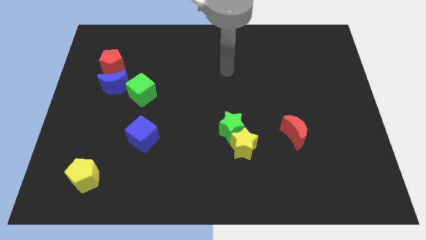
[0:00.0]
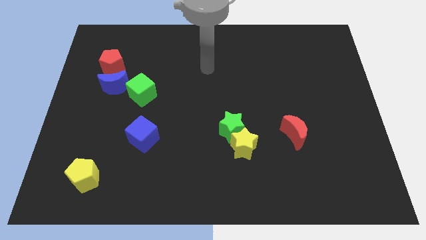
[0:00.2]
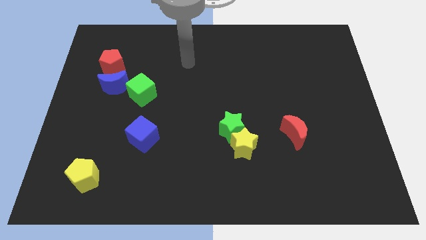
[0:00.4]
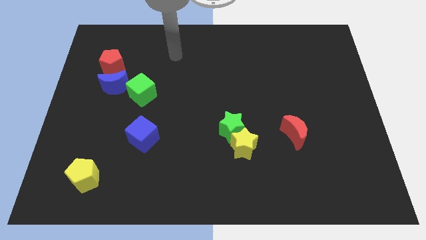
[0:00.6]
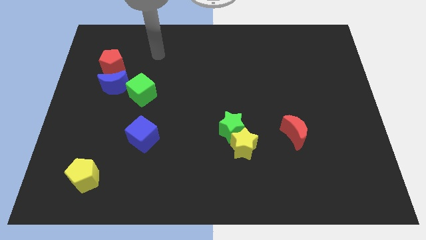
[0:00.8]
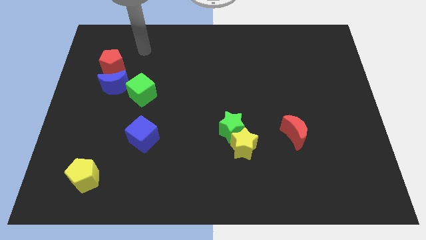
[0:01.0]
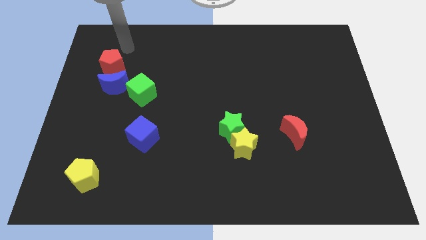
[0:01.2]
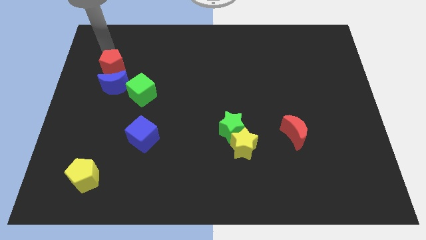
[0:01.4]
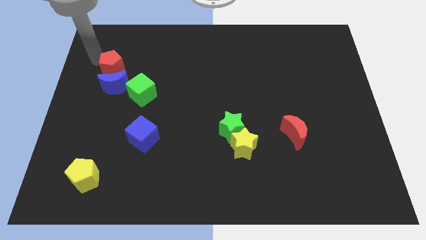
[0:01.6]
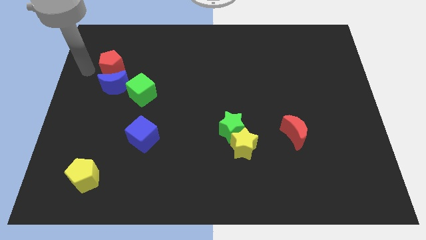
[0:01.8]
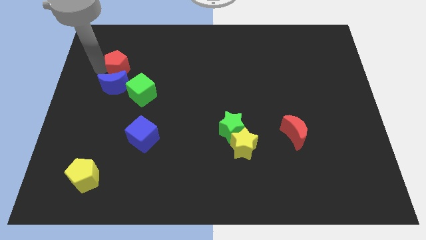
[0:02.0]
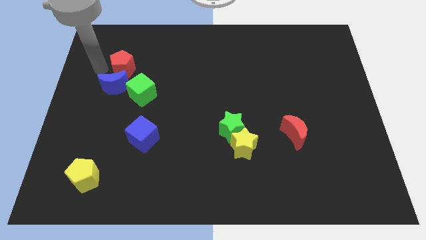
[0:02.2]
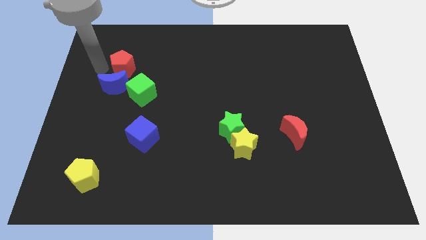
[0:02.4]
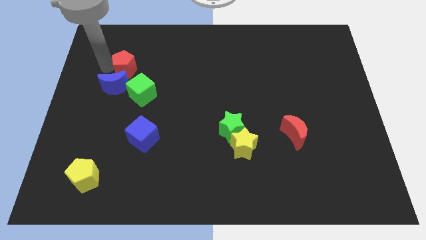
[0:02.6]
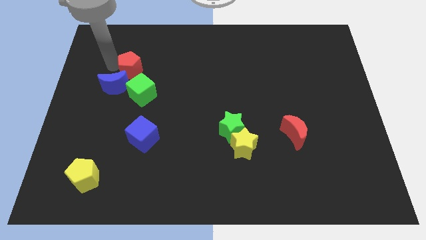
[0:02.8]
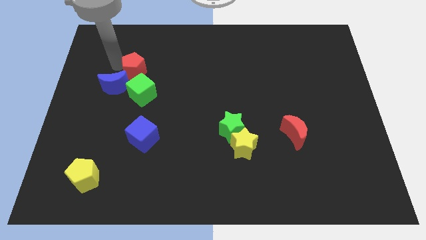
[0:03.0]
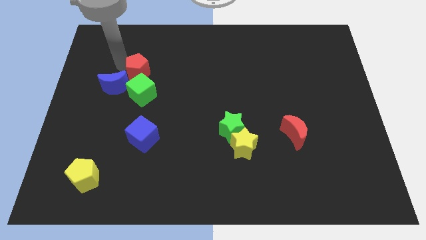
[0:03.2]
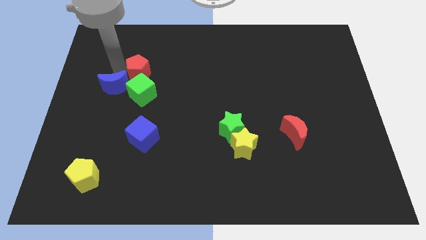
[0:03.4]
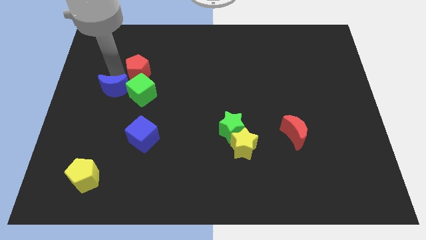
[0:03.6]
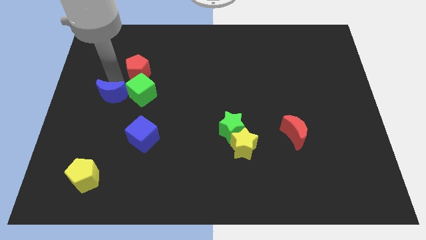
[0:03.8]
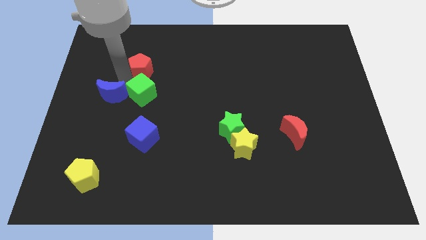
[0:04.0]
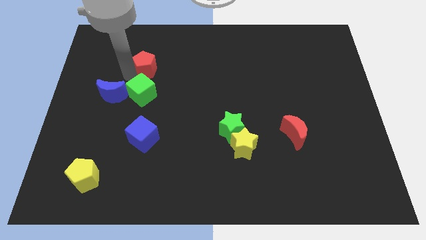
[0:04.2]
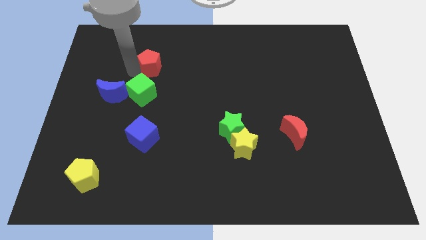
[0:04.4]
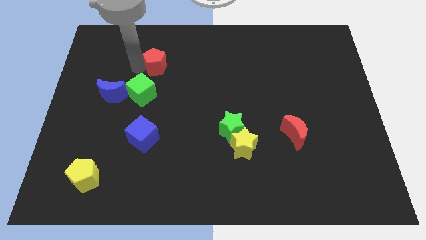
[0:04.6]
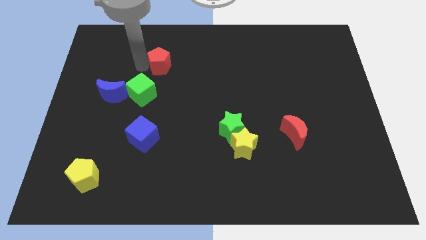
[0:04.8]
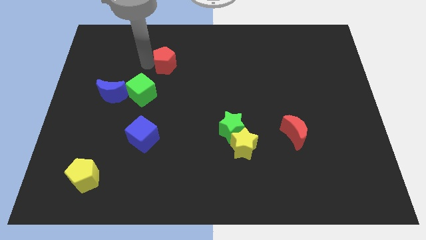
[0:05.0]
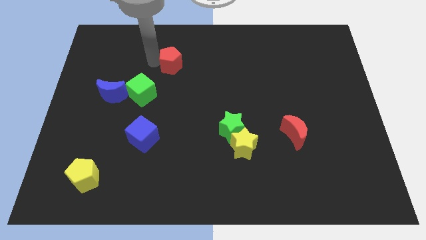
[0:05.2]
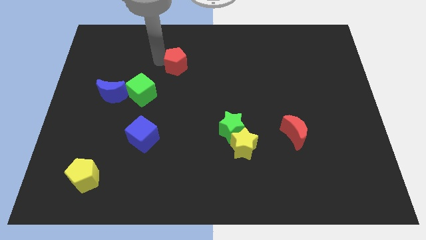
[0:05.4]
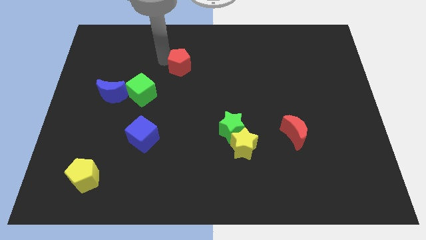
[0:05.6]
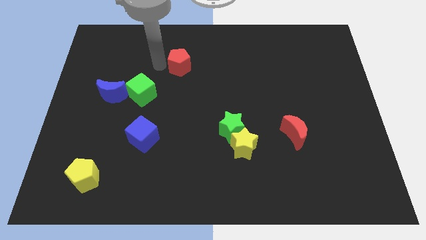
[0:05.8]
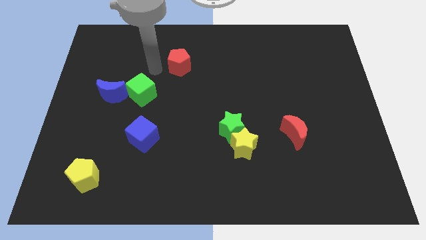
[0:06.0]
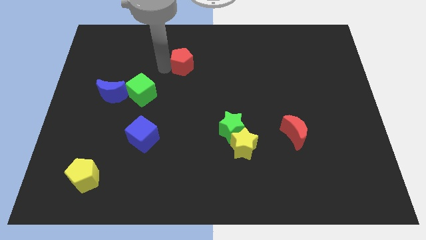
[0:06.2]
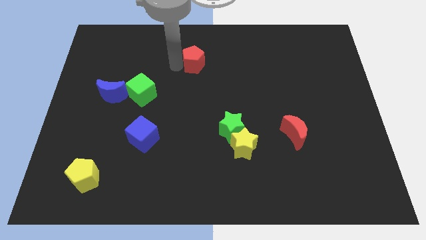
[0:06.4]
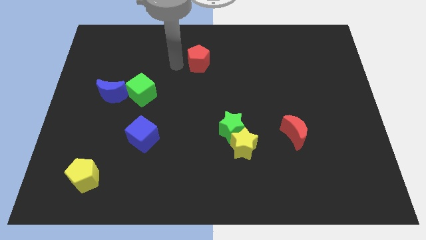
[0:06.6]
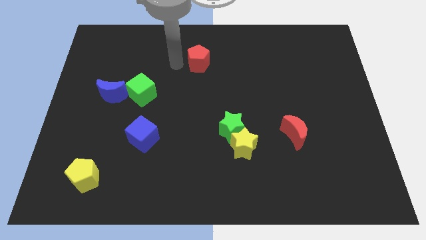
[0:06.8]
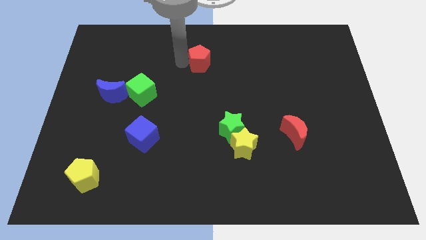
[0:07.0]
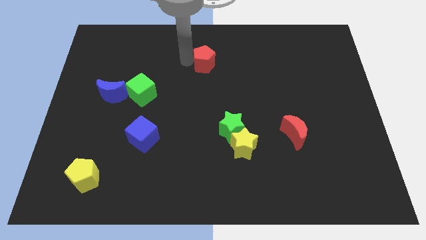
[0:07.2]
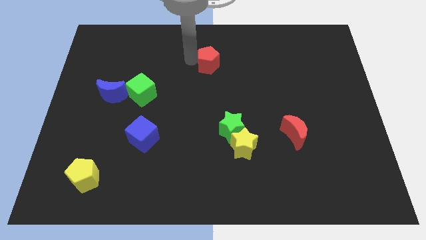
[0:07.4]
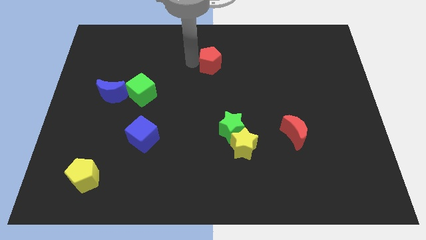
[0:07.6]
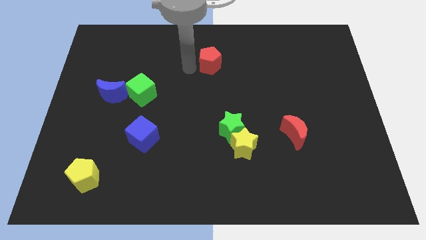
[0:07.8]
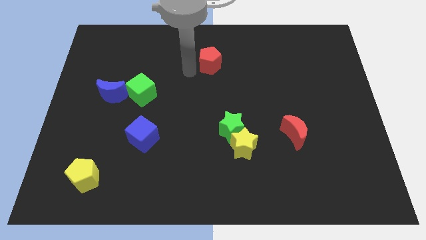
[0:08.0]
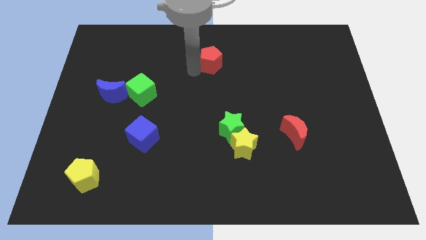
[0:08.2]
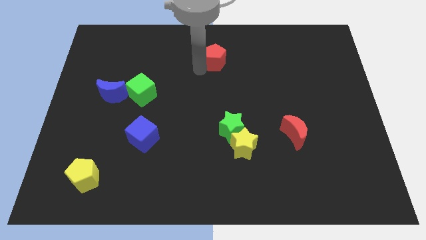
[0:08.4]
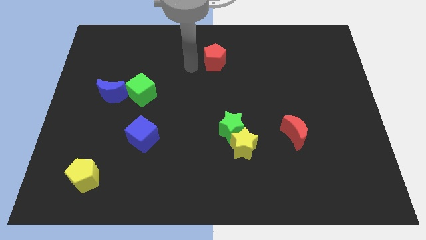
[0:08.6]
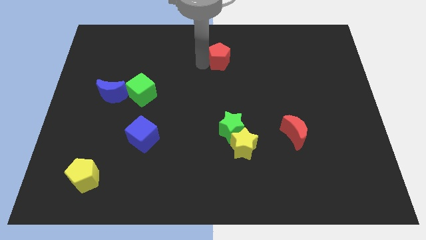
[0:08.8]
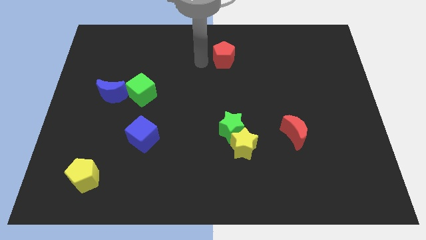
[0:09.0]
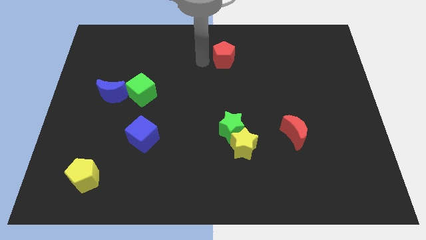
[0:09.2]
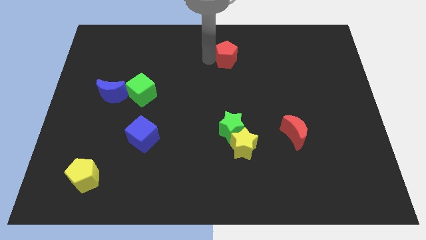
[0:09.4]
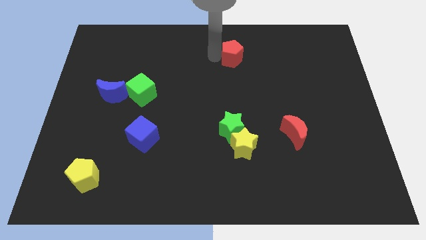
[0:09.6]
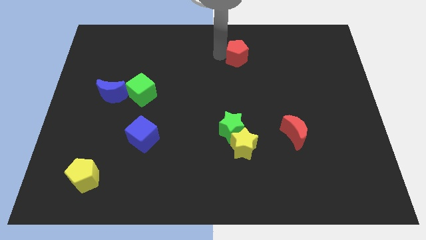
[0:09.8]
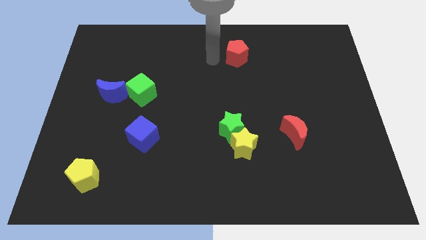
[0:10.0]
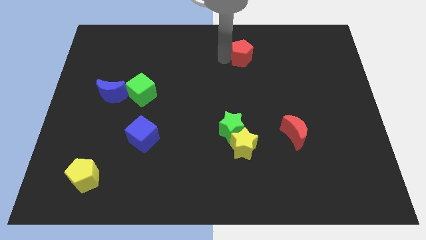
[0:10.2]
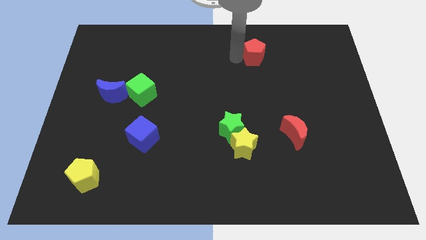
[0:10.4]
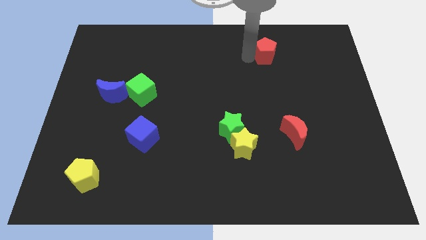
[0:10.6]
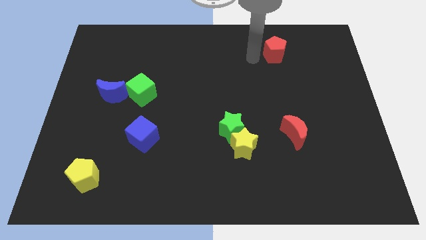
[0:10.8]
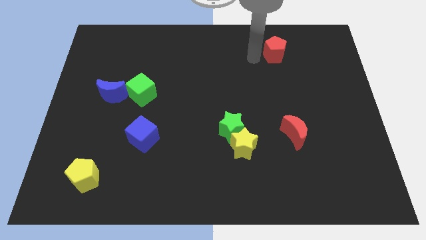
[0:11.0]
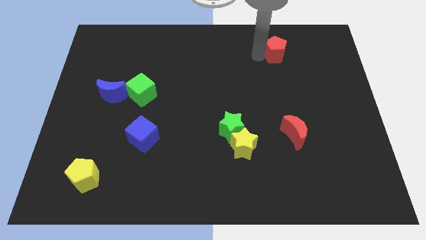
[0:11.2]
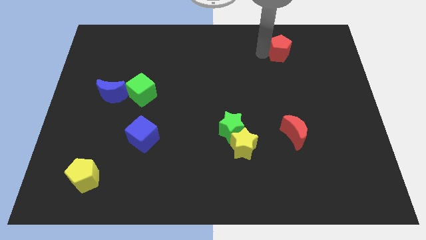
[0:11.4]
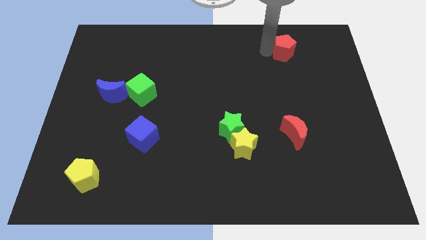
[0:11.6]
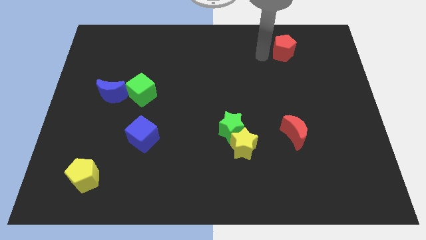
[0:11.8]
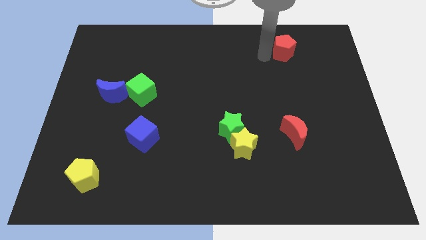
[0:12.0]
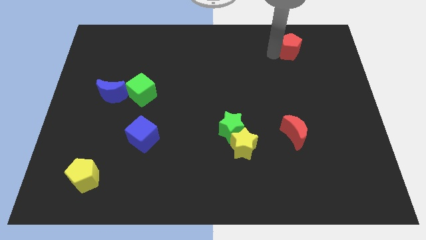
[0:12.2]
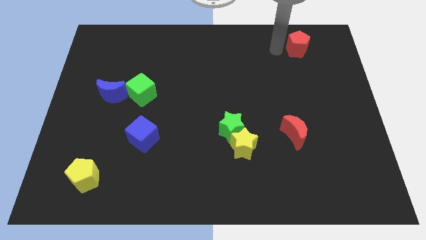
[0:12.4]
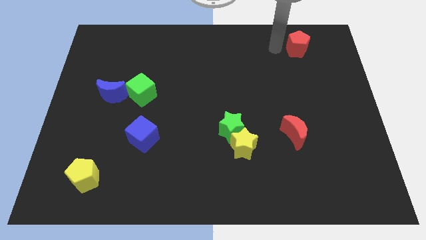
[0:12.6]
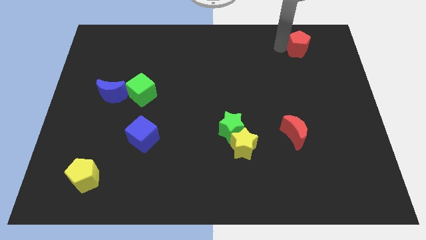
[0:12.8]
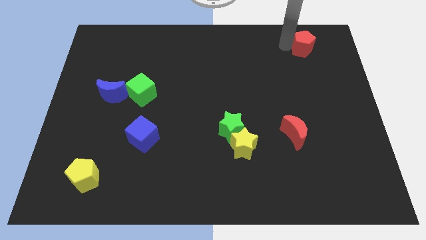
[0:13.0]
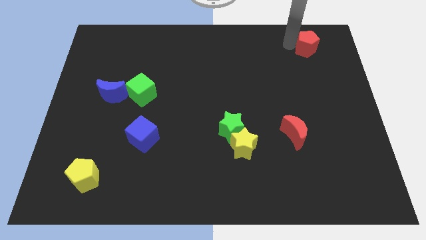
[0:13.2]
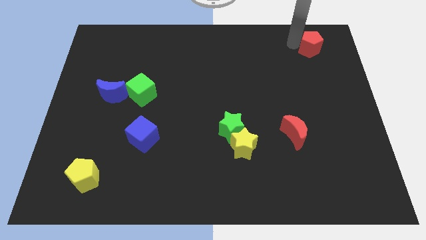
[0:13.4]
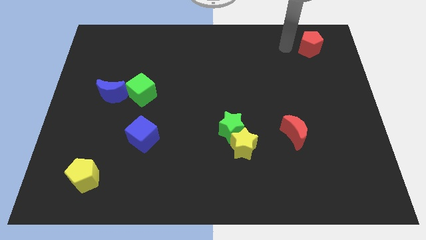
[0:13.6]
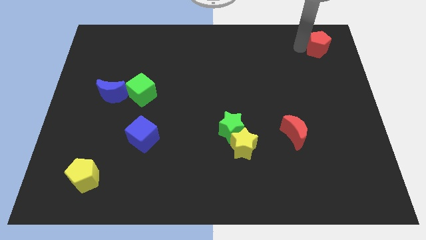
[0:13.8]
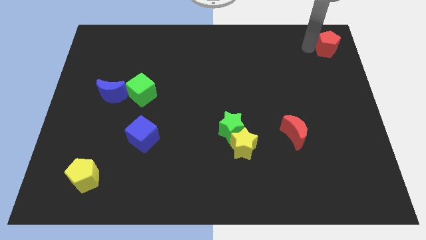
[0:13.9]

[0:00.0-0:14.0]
put the red pentagon to the upper right corner
